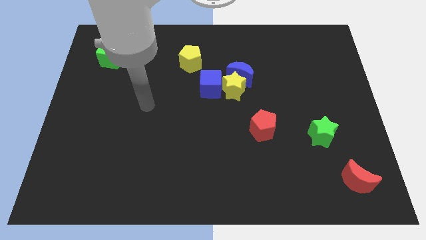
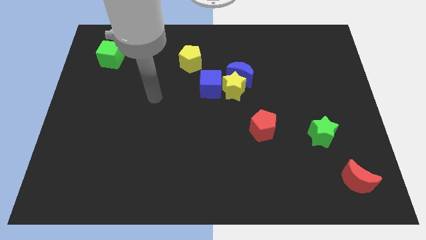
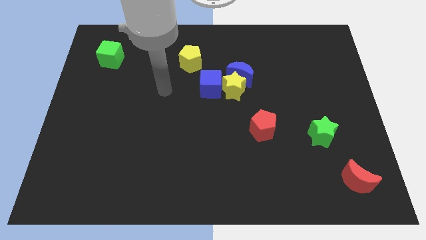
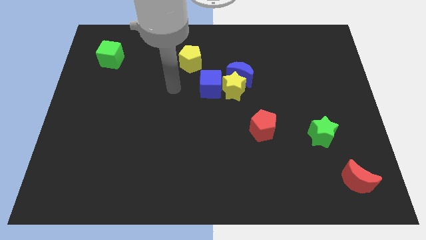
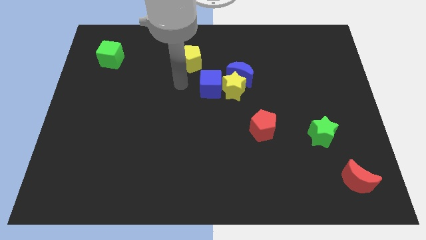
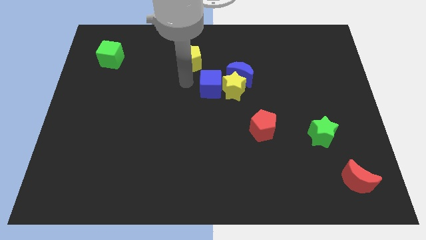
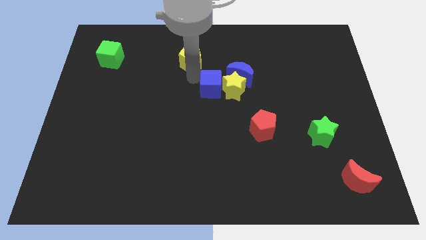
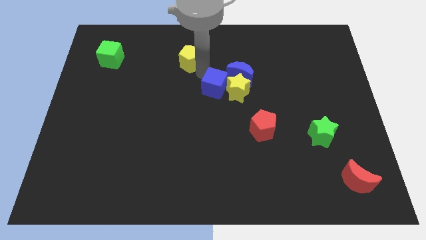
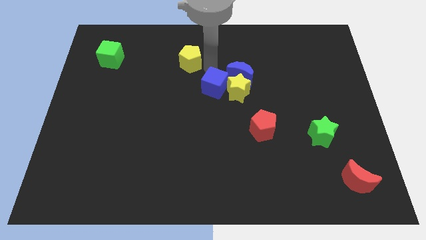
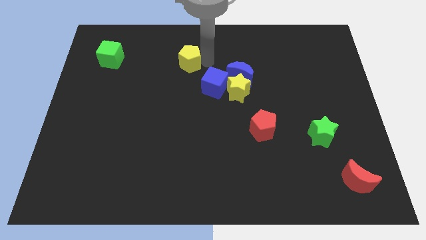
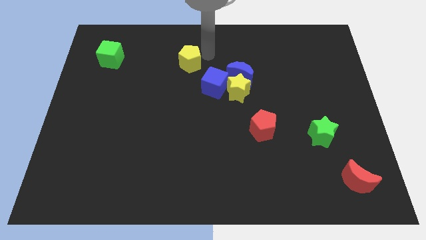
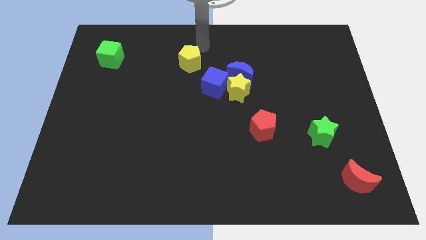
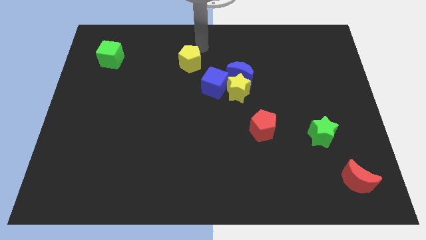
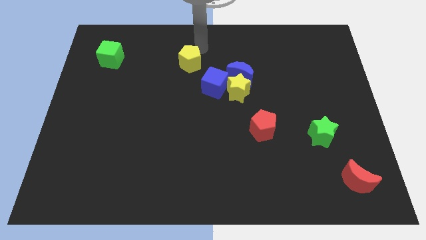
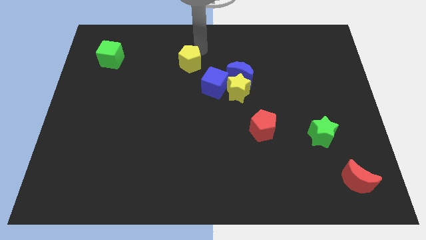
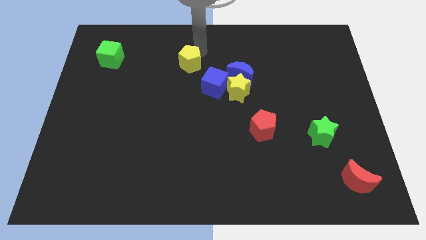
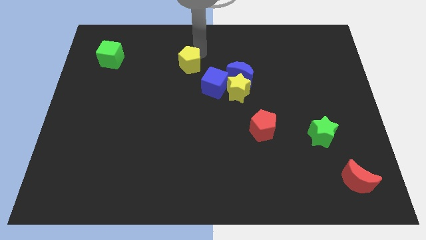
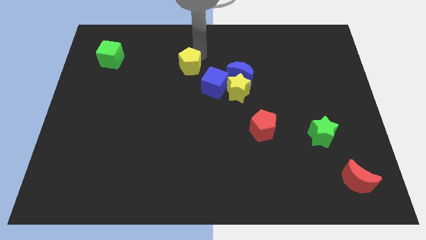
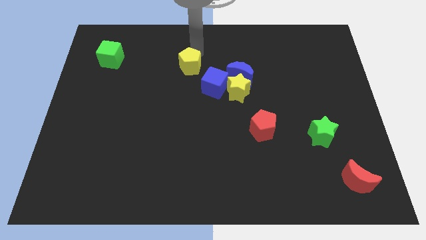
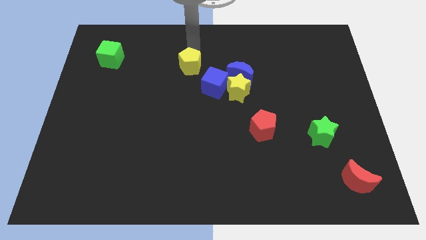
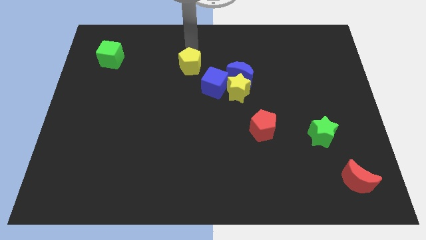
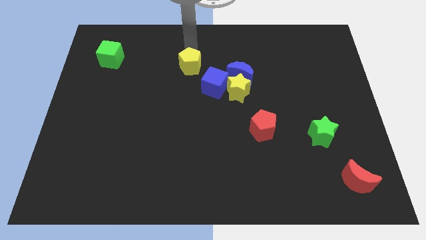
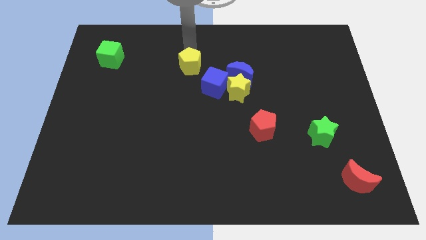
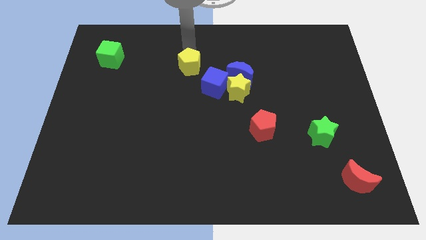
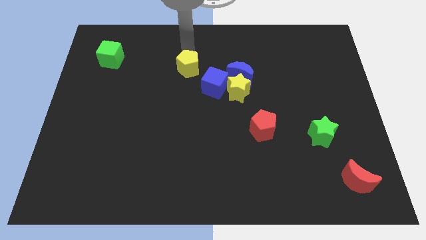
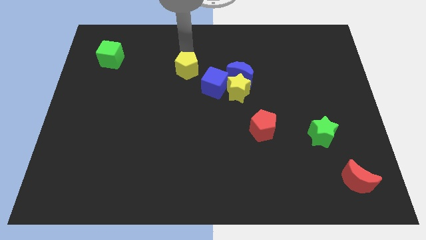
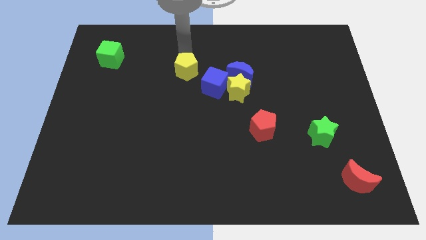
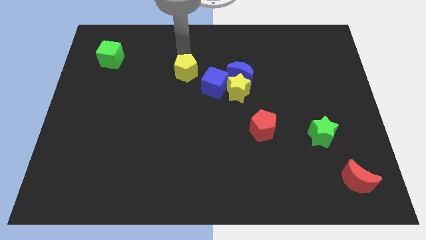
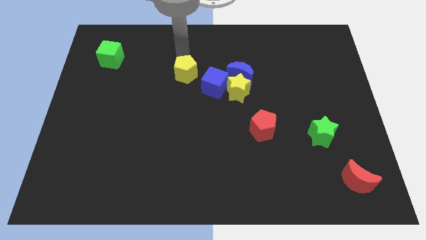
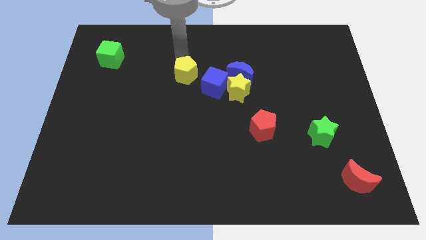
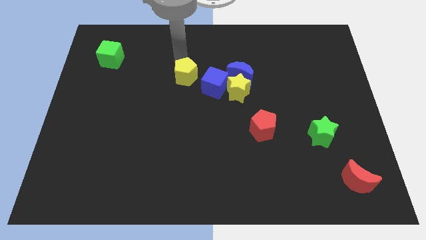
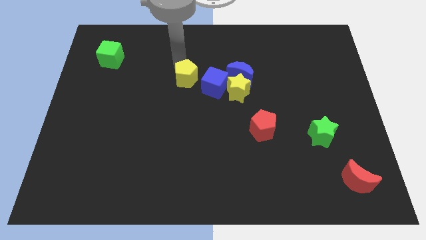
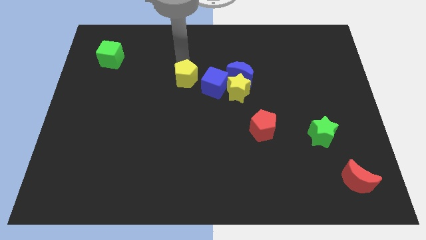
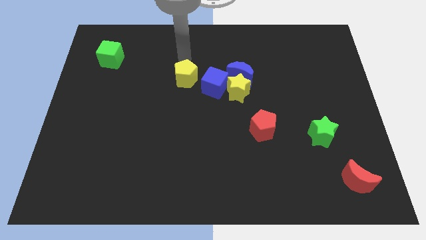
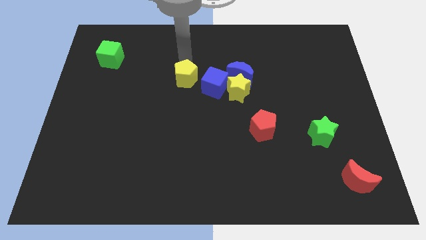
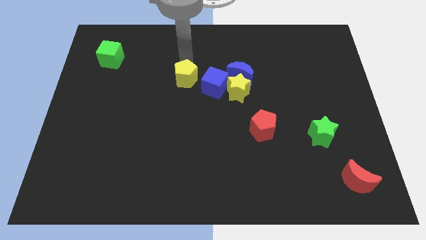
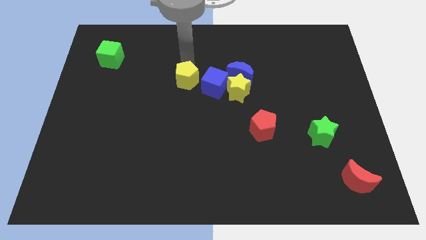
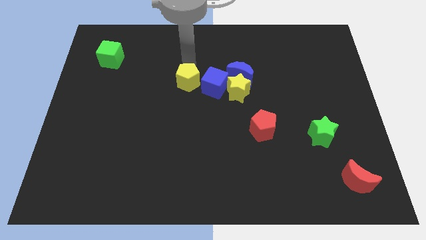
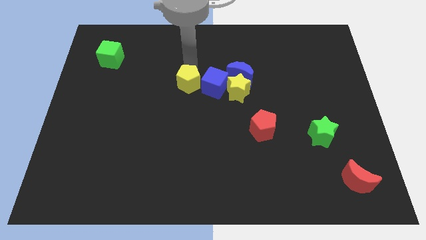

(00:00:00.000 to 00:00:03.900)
move the yellow pentagon downwards a little

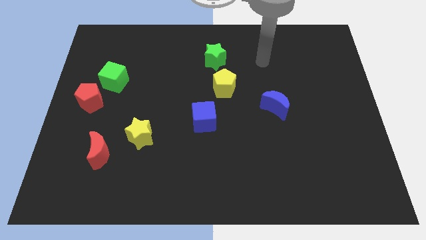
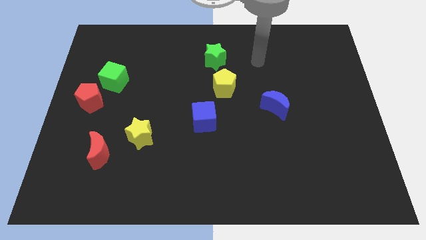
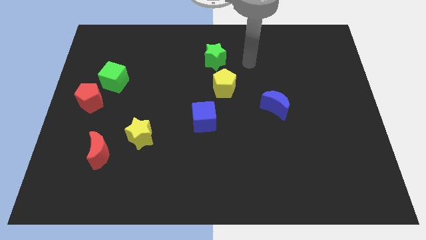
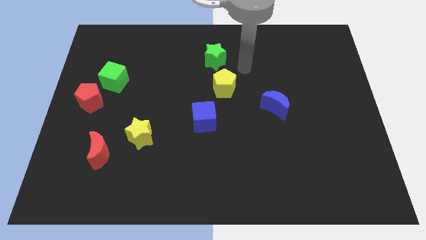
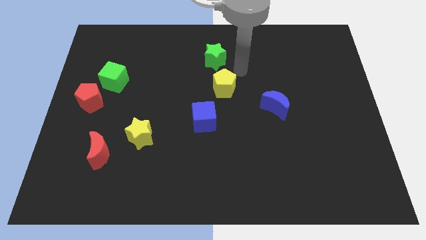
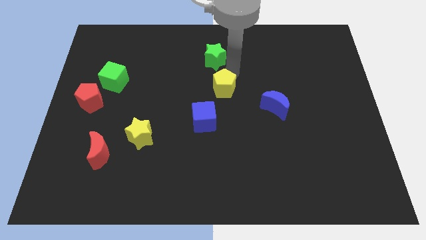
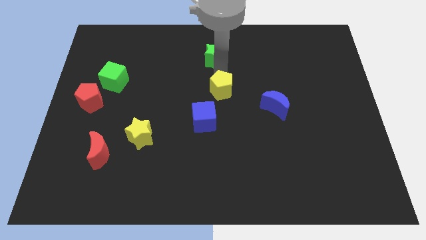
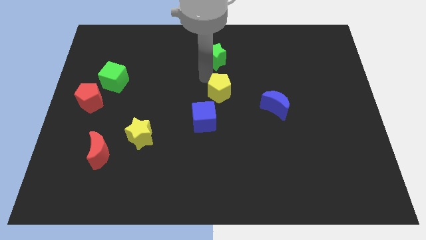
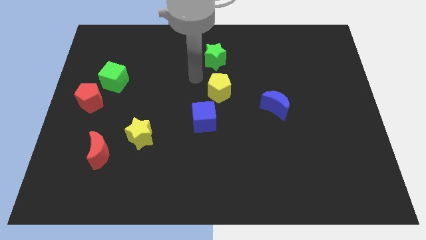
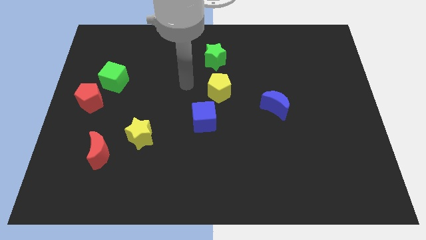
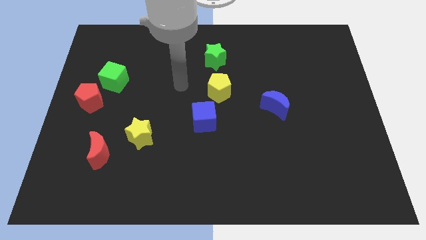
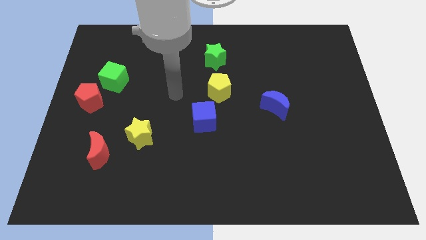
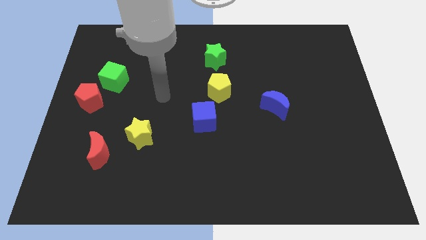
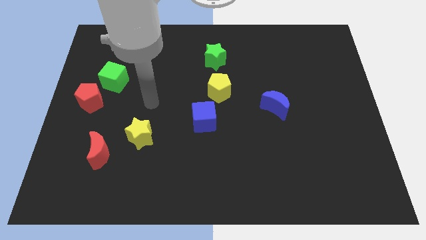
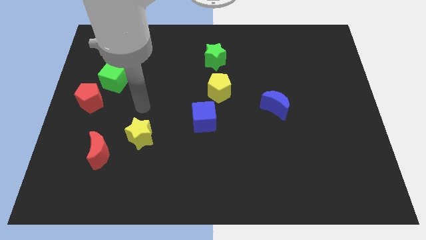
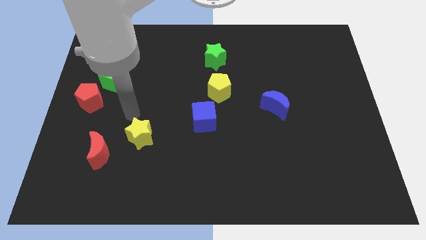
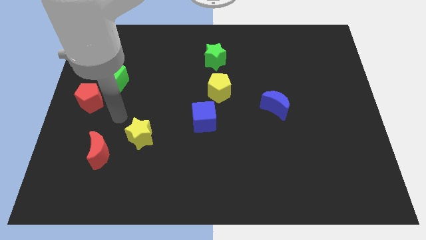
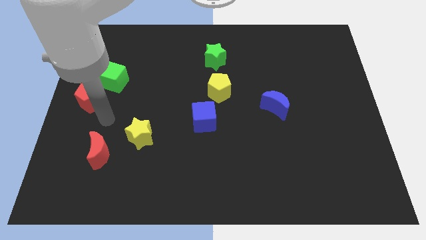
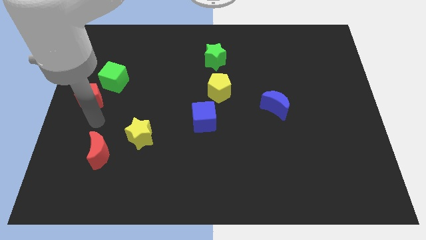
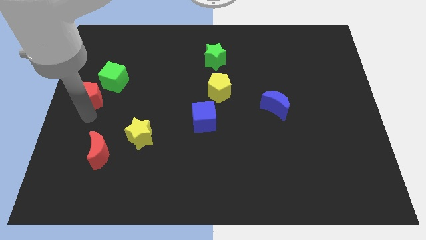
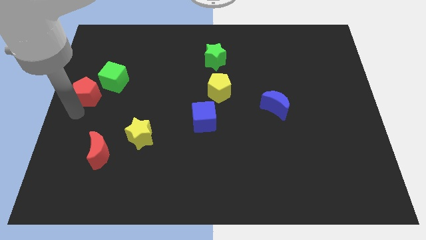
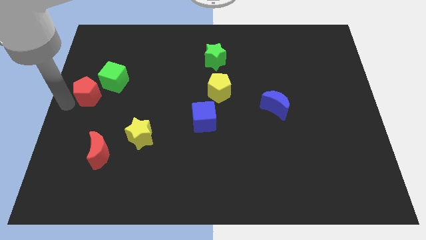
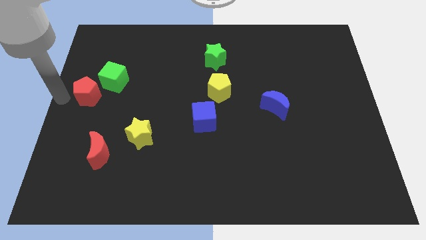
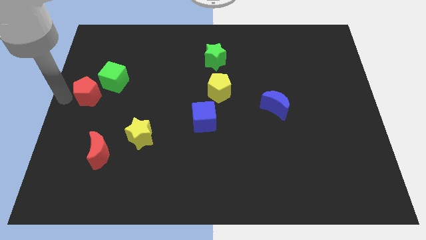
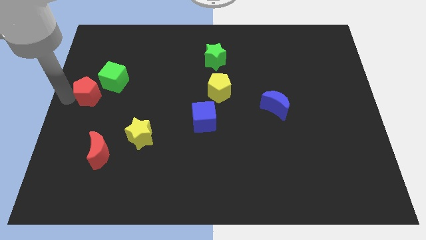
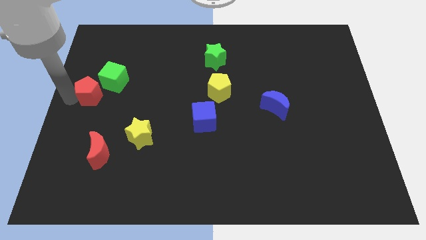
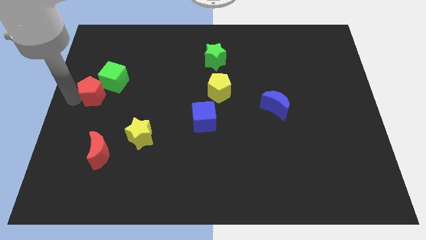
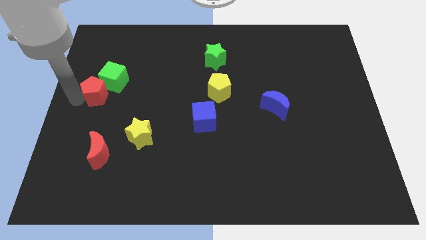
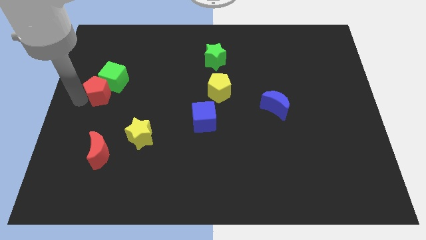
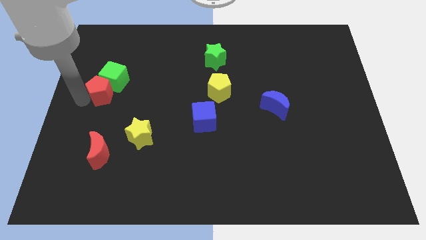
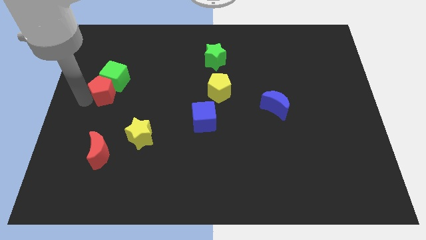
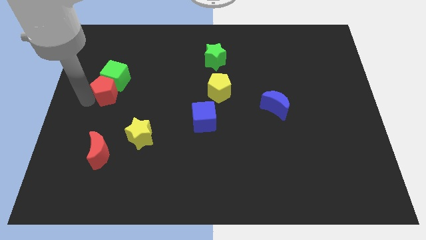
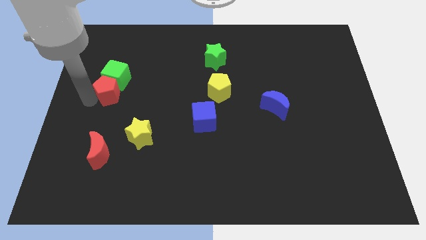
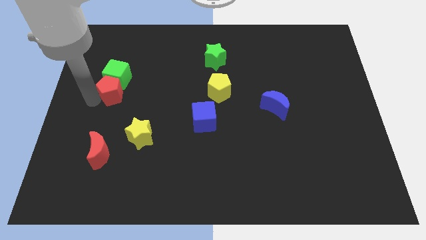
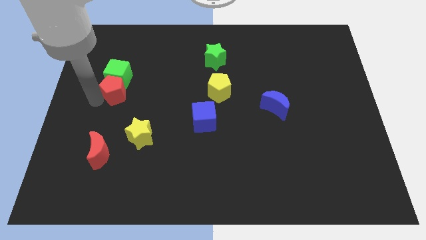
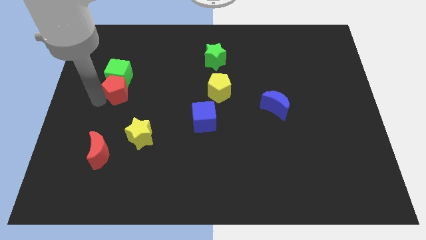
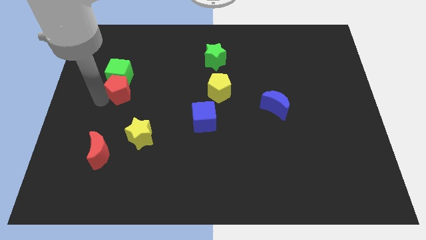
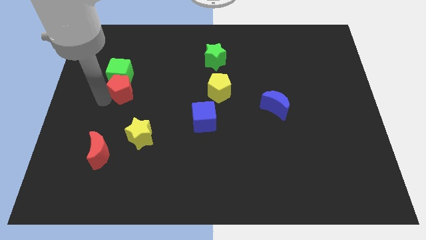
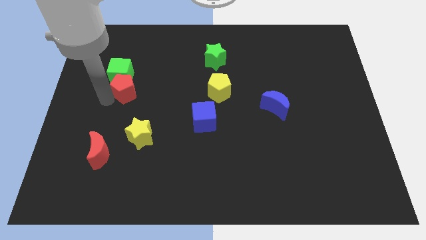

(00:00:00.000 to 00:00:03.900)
push the red pentagon upwards and then to the right a little

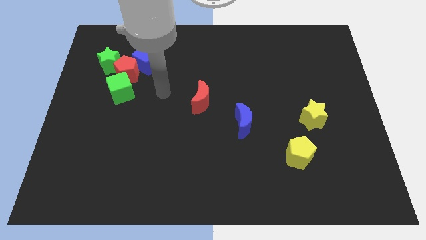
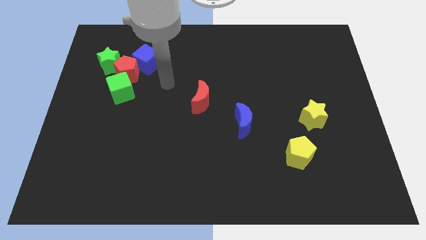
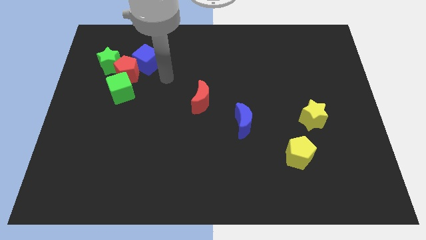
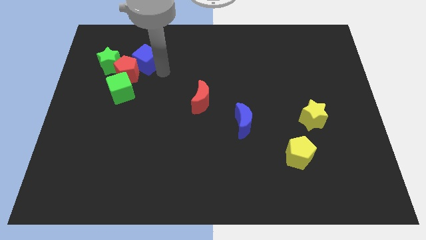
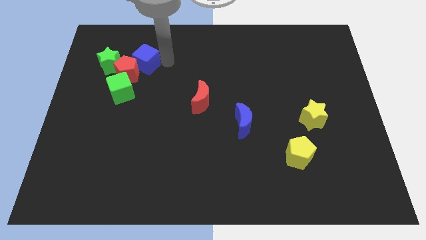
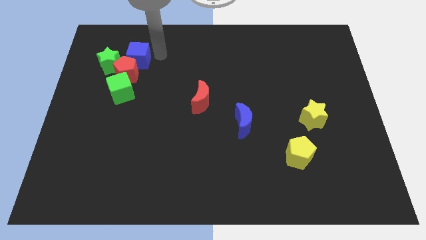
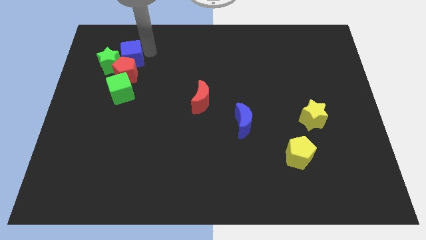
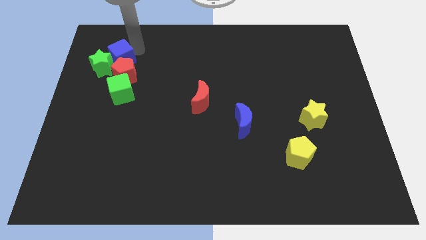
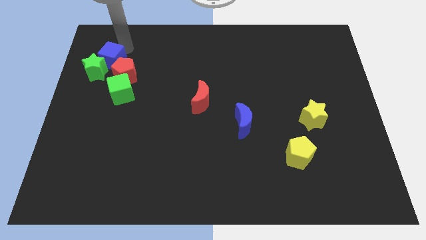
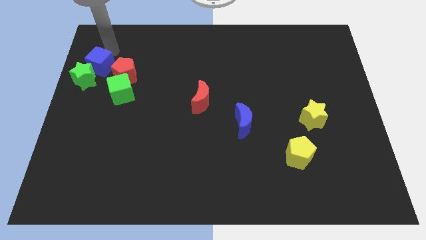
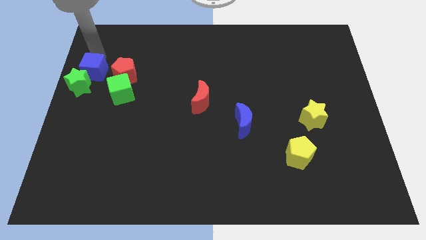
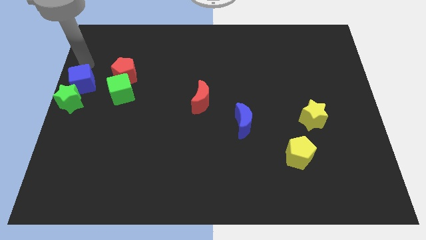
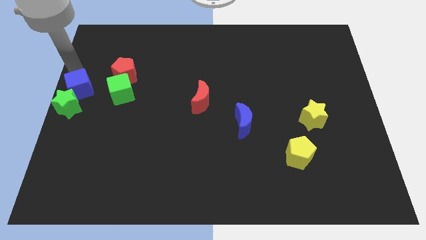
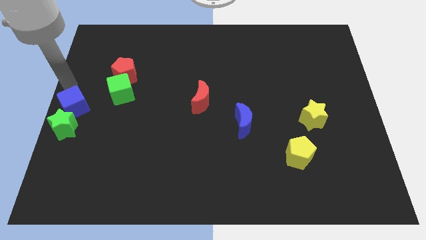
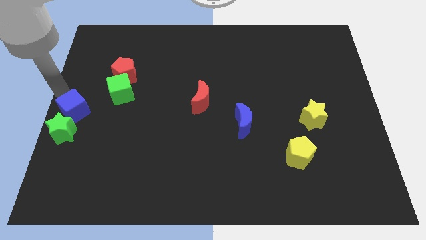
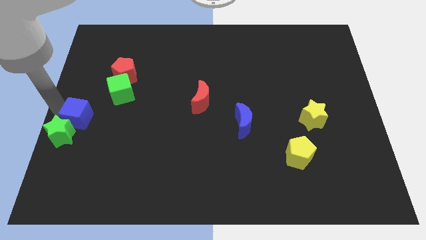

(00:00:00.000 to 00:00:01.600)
push the green star downwards
